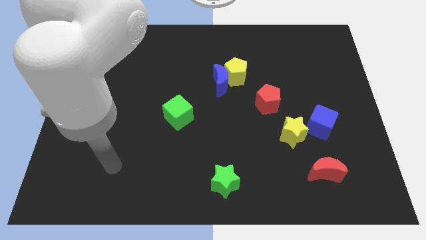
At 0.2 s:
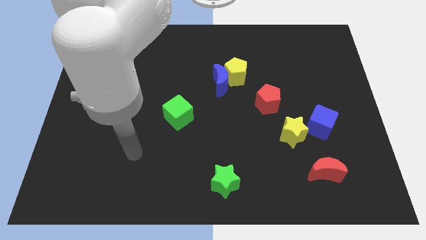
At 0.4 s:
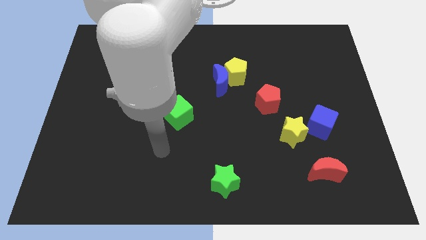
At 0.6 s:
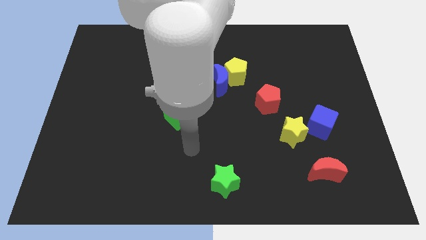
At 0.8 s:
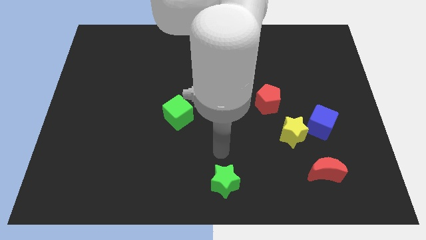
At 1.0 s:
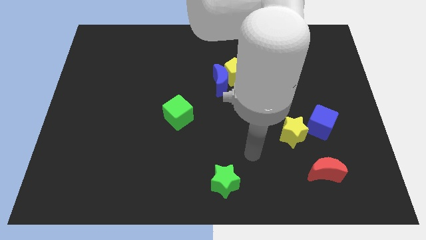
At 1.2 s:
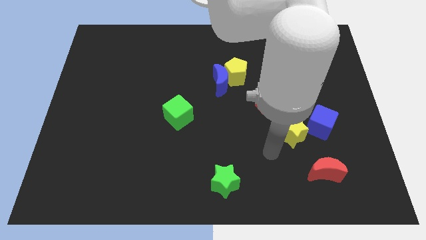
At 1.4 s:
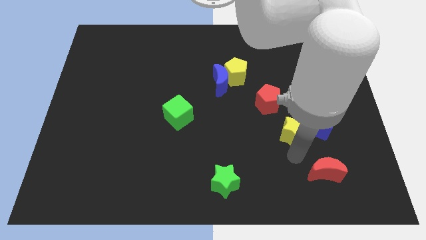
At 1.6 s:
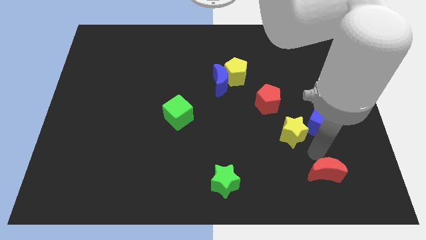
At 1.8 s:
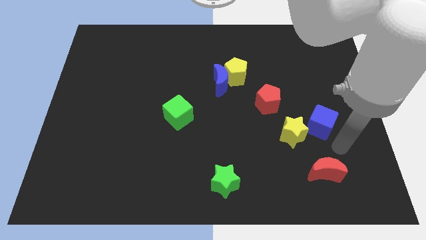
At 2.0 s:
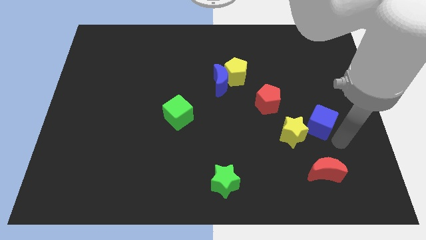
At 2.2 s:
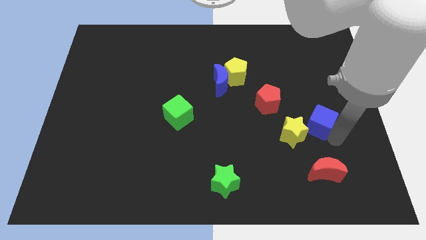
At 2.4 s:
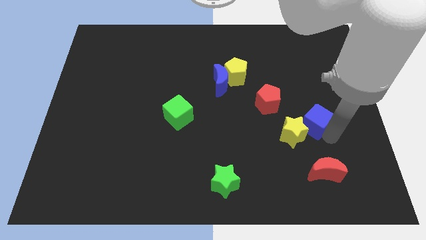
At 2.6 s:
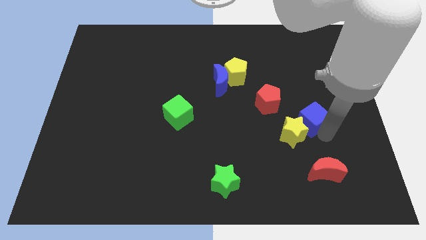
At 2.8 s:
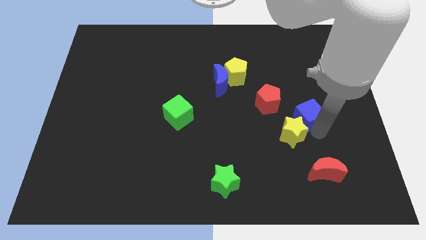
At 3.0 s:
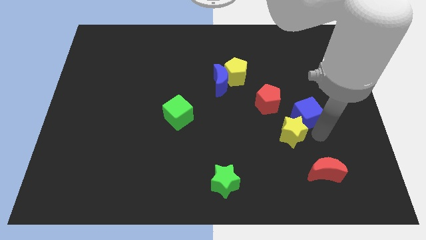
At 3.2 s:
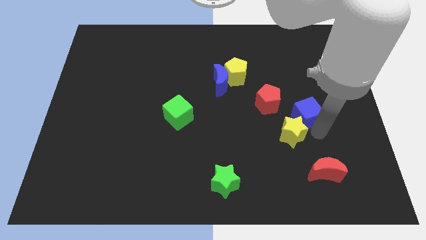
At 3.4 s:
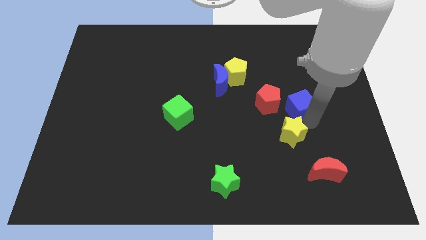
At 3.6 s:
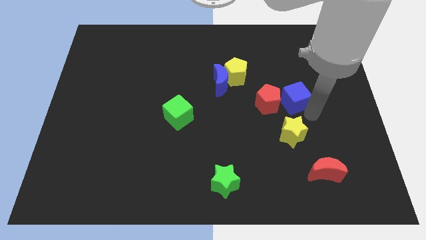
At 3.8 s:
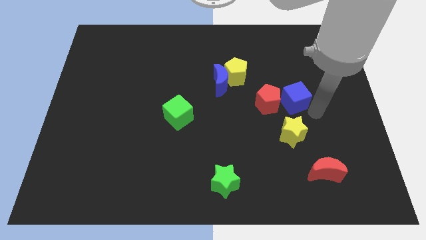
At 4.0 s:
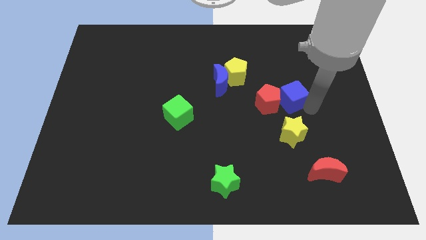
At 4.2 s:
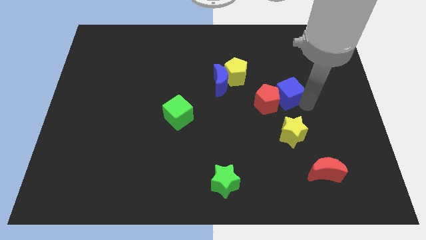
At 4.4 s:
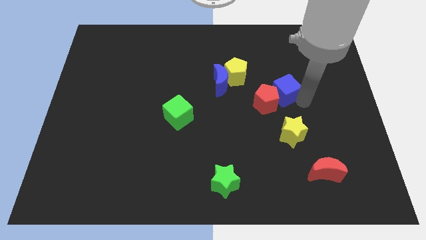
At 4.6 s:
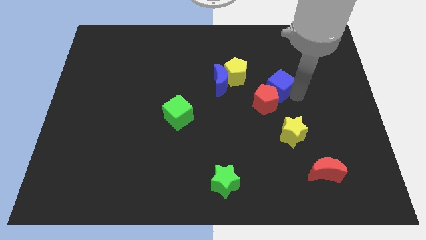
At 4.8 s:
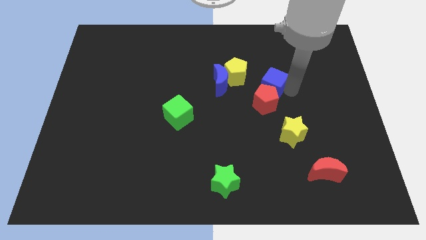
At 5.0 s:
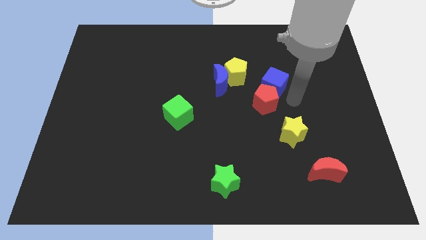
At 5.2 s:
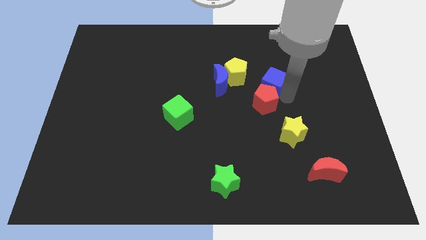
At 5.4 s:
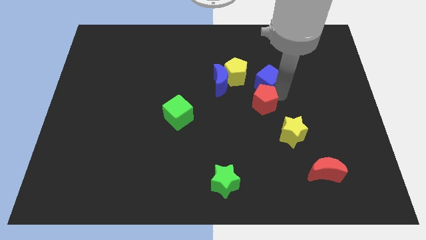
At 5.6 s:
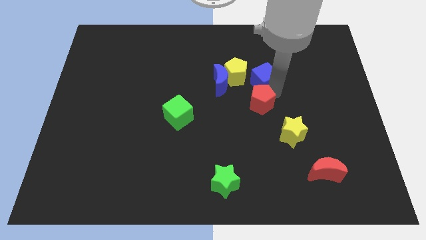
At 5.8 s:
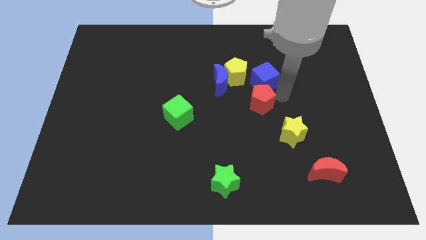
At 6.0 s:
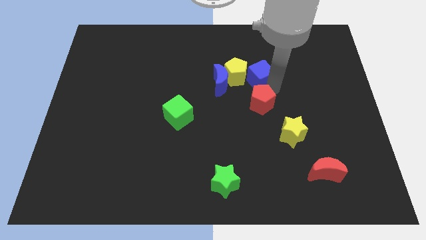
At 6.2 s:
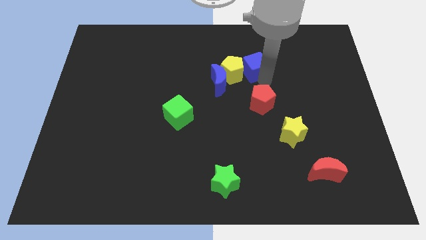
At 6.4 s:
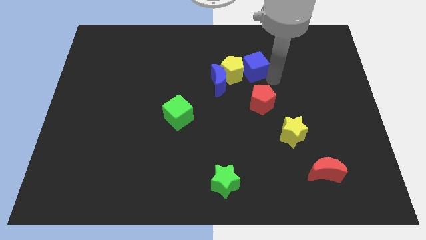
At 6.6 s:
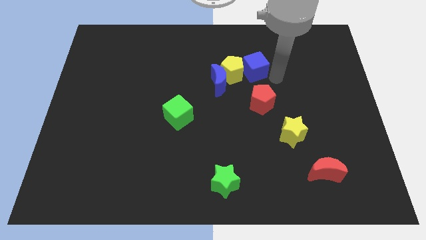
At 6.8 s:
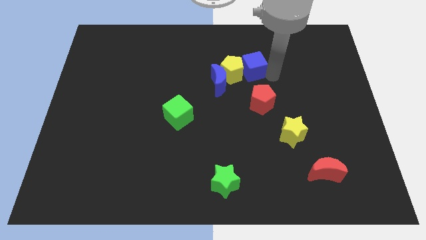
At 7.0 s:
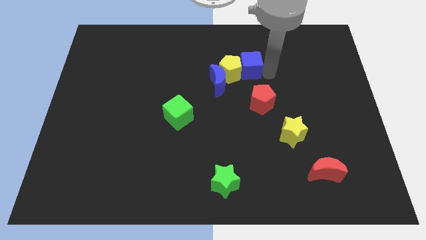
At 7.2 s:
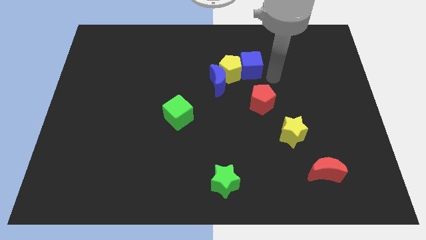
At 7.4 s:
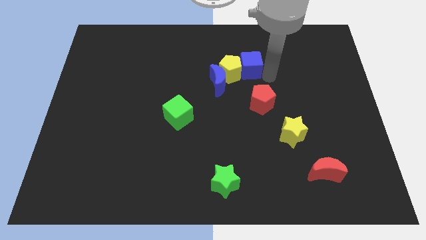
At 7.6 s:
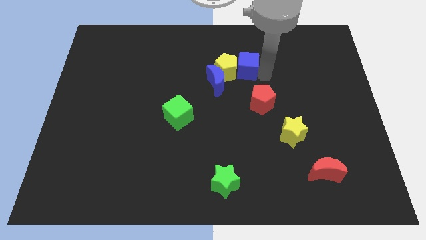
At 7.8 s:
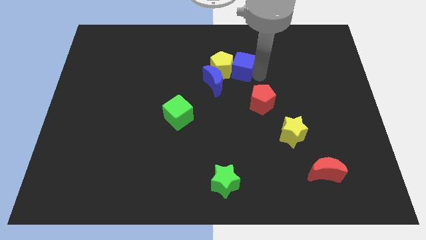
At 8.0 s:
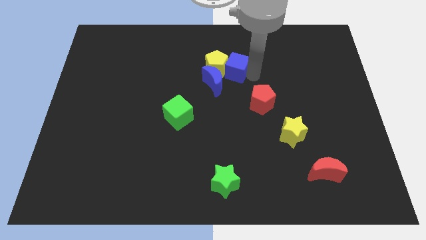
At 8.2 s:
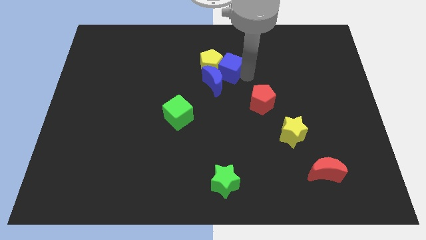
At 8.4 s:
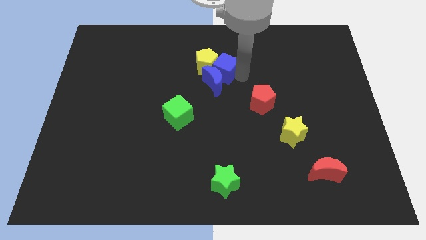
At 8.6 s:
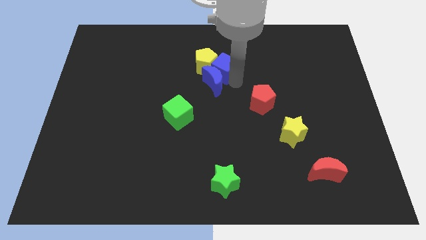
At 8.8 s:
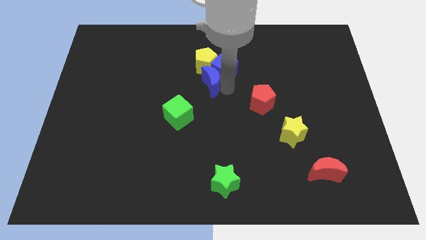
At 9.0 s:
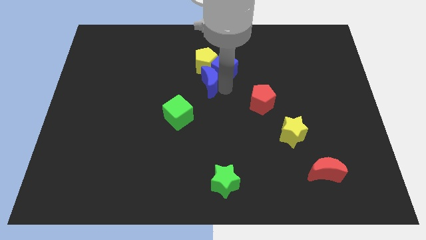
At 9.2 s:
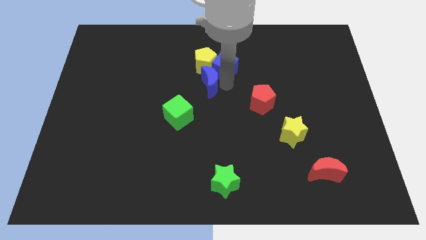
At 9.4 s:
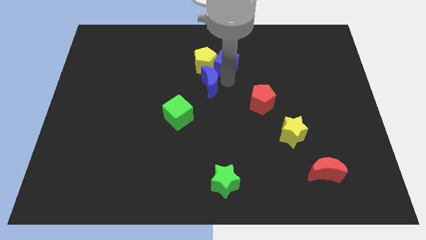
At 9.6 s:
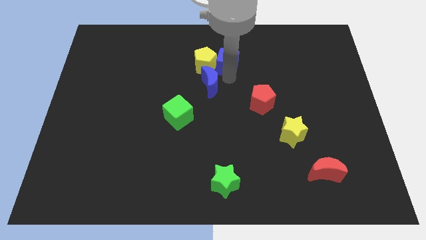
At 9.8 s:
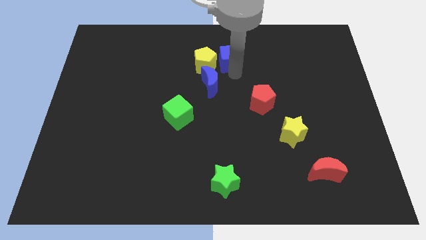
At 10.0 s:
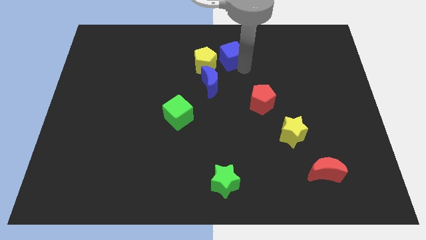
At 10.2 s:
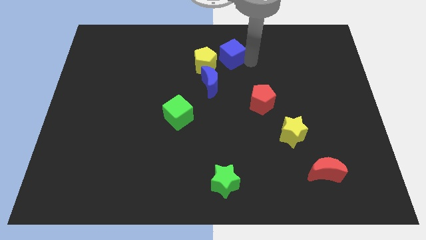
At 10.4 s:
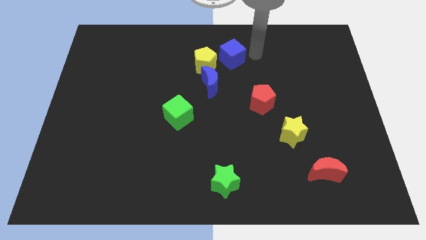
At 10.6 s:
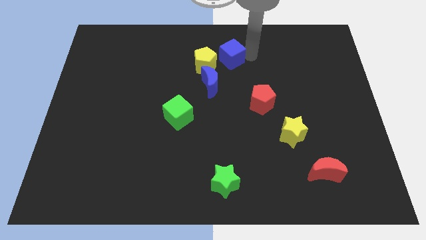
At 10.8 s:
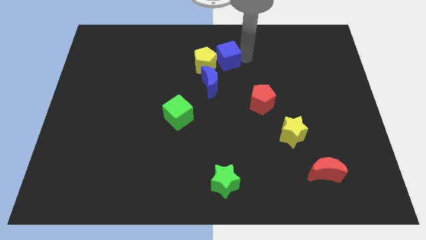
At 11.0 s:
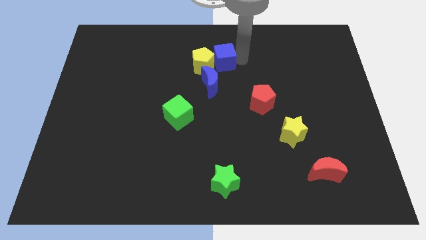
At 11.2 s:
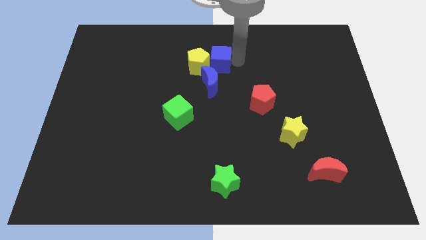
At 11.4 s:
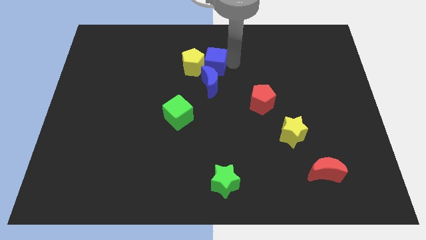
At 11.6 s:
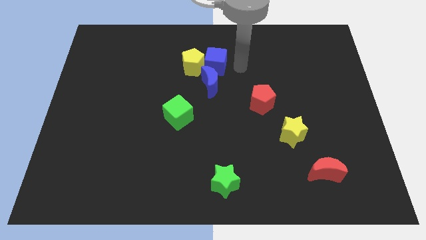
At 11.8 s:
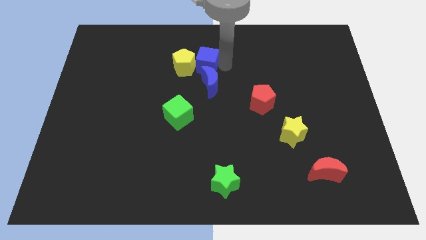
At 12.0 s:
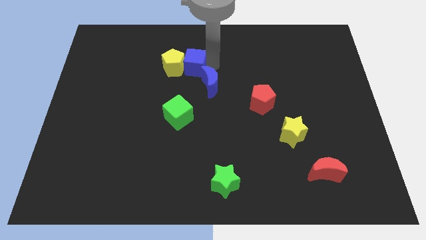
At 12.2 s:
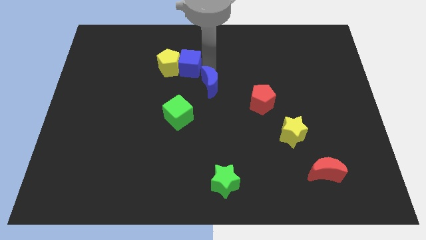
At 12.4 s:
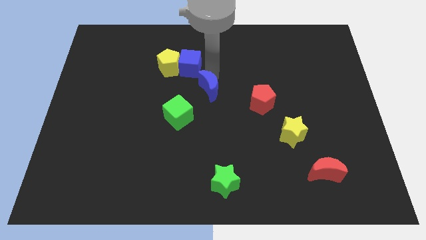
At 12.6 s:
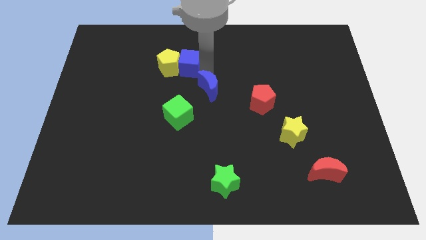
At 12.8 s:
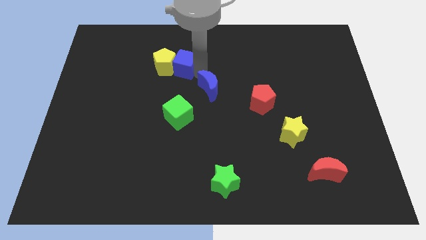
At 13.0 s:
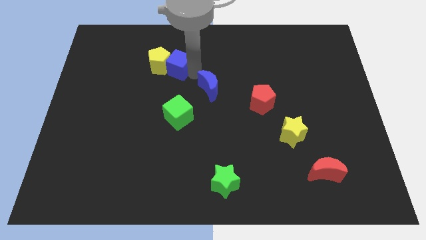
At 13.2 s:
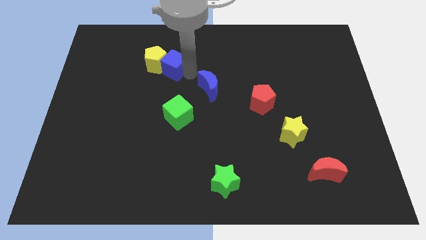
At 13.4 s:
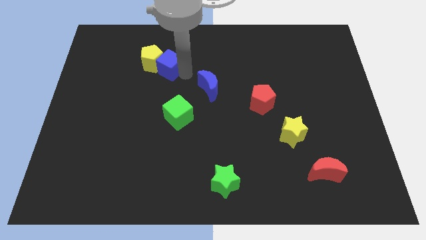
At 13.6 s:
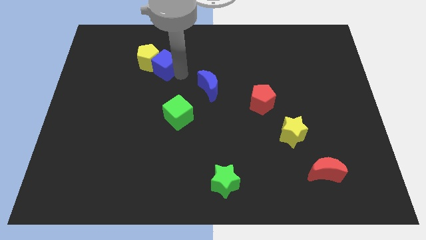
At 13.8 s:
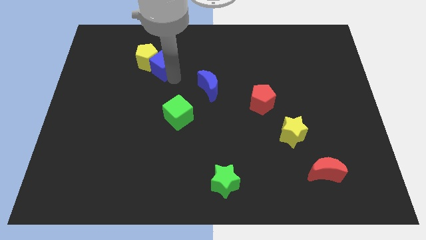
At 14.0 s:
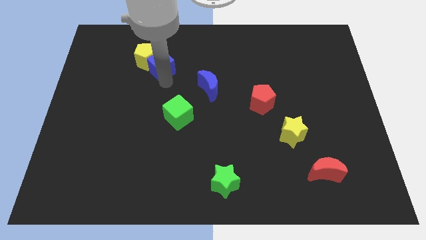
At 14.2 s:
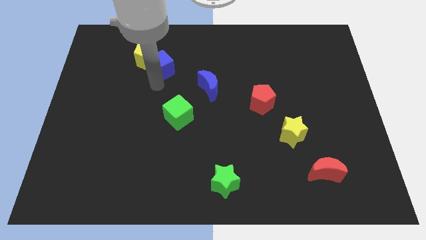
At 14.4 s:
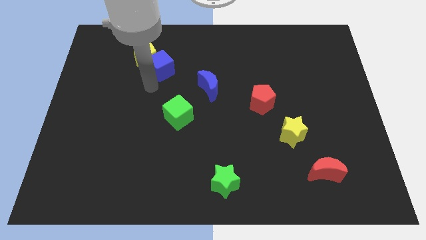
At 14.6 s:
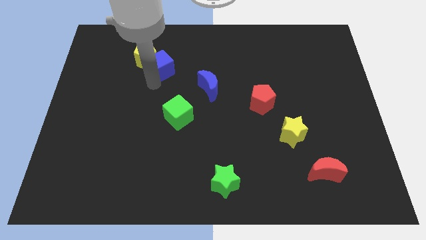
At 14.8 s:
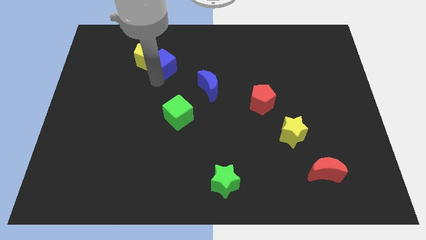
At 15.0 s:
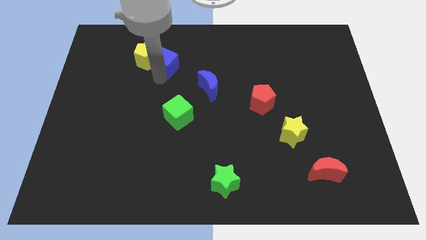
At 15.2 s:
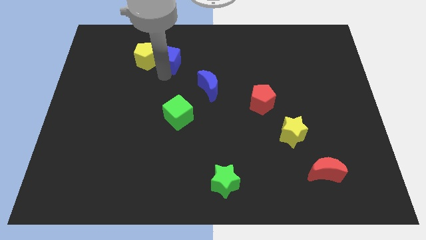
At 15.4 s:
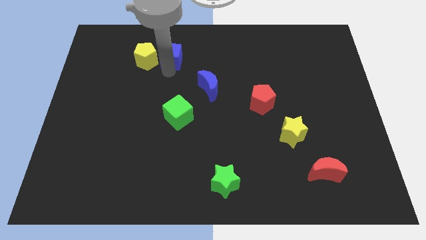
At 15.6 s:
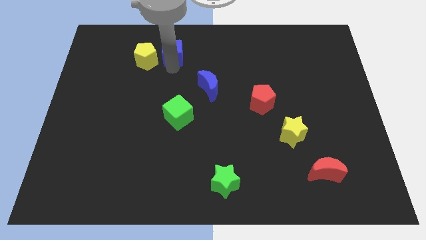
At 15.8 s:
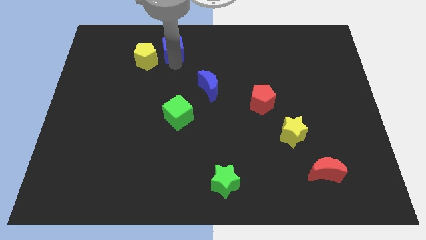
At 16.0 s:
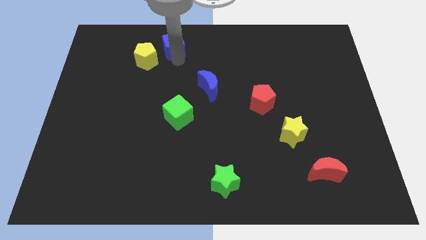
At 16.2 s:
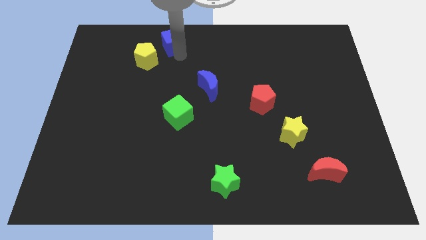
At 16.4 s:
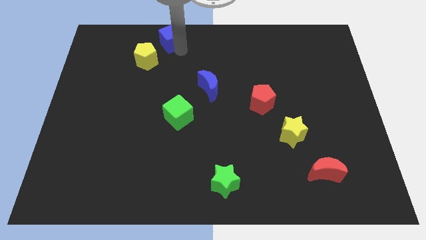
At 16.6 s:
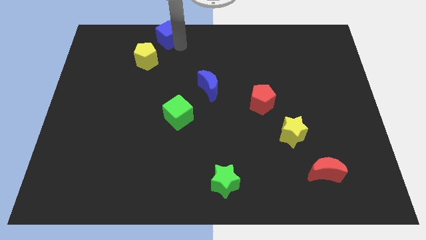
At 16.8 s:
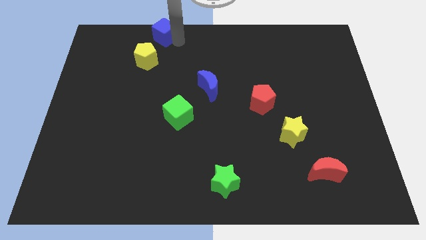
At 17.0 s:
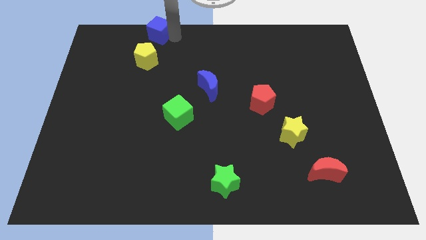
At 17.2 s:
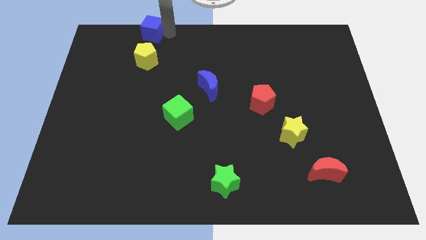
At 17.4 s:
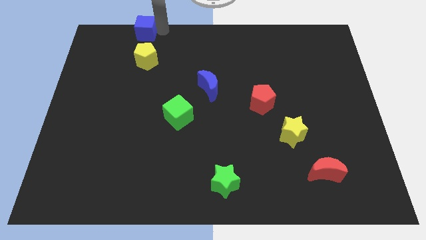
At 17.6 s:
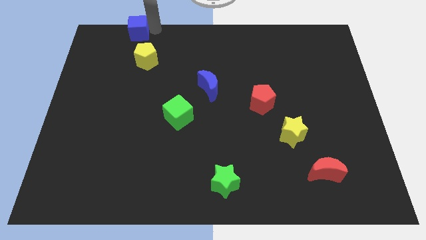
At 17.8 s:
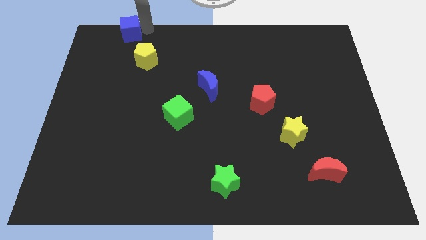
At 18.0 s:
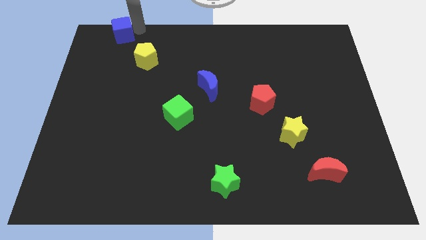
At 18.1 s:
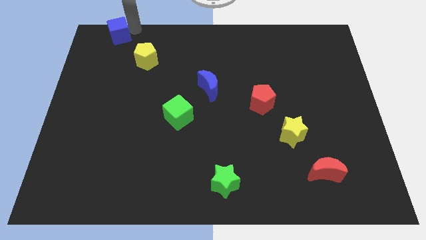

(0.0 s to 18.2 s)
slide the blue cube to the top left of the board
